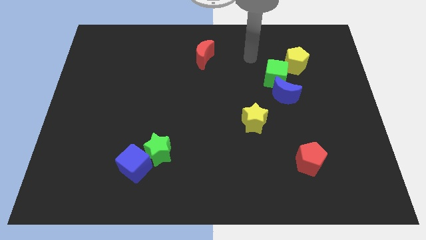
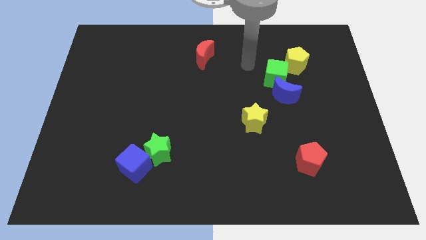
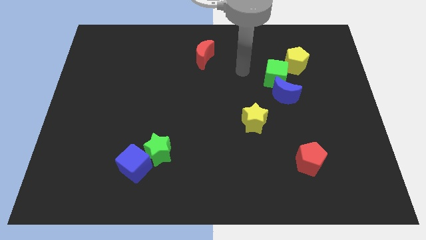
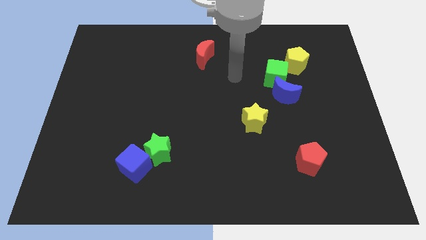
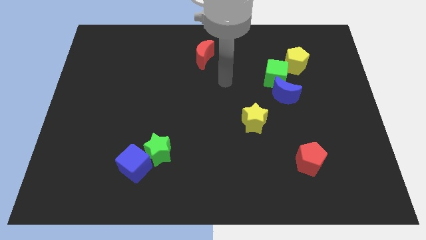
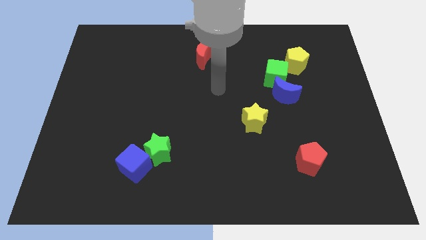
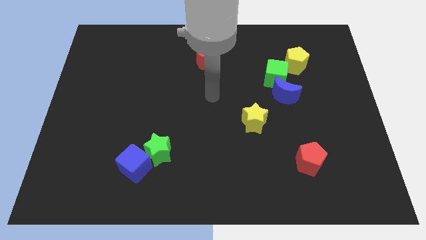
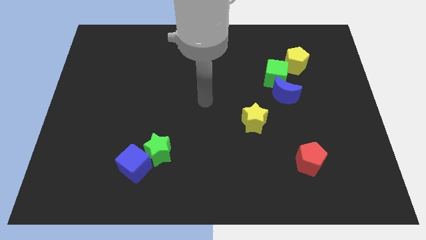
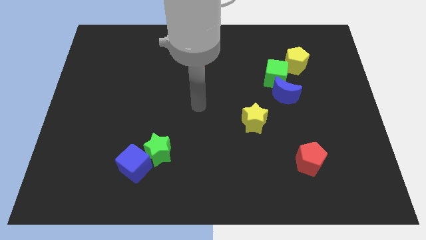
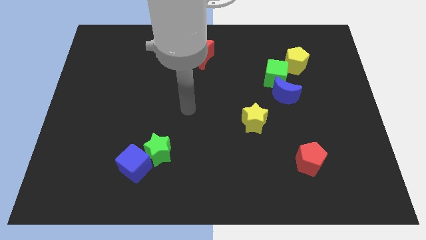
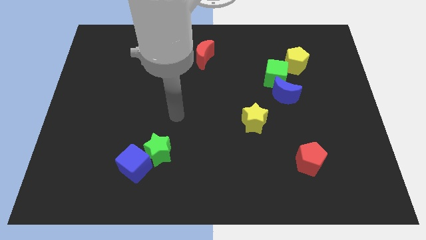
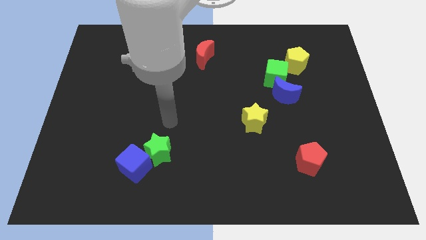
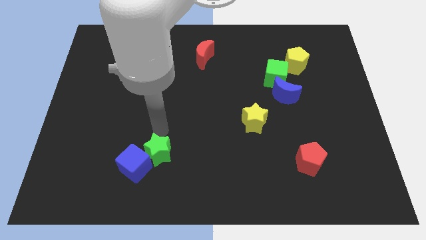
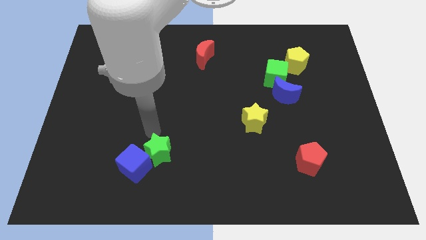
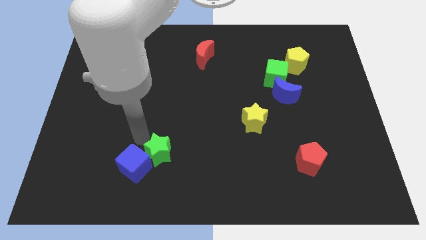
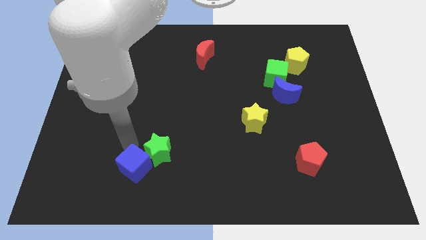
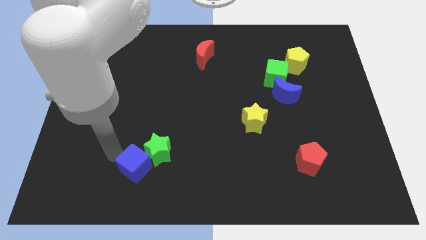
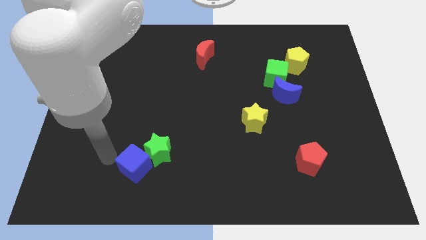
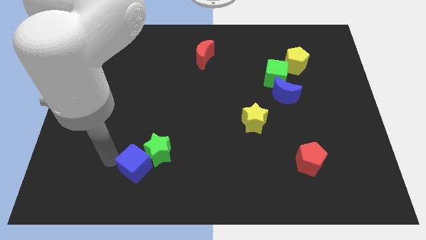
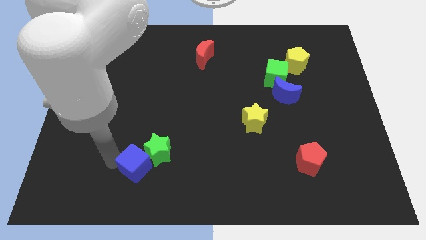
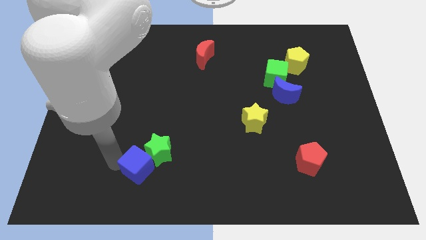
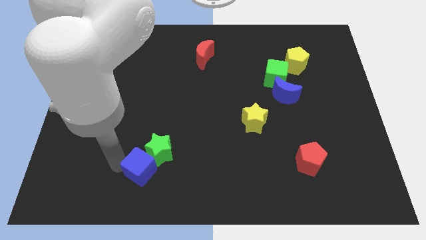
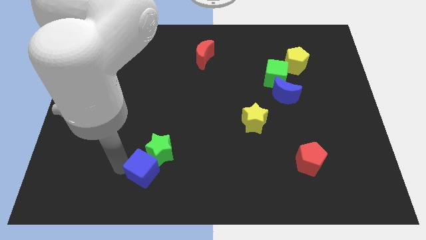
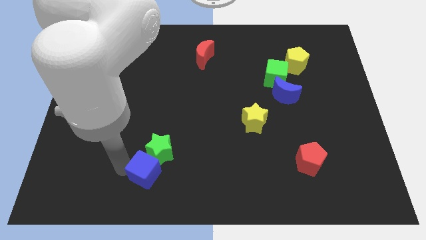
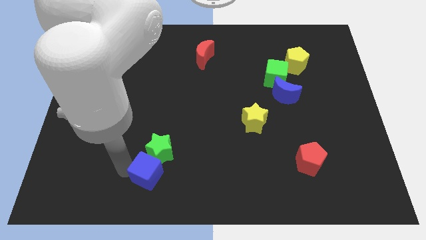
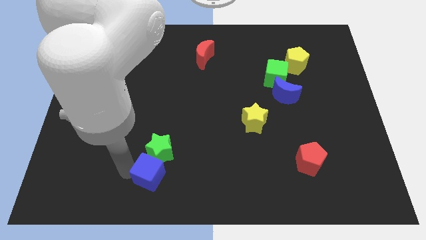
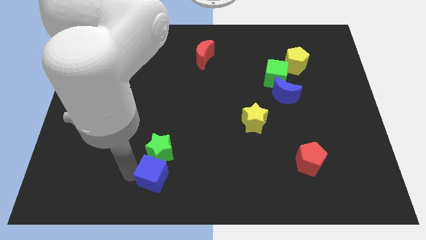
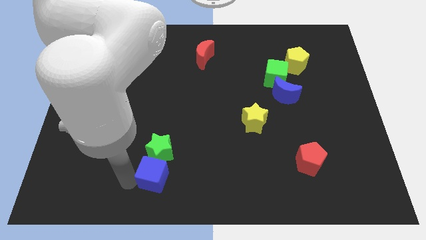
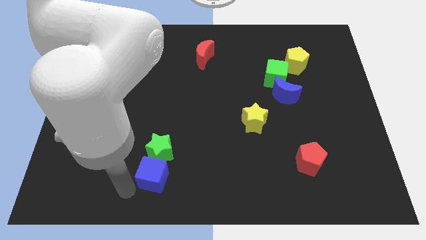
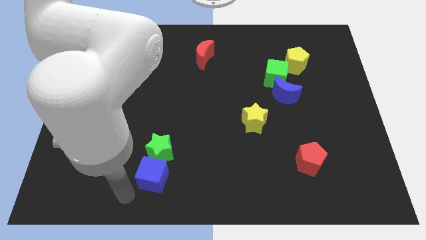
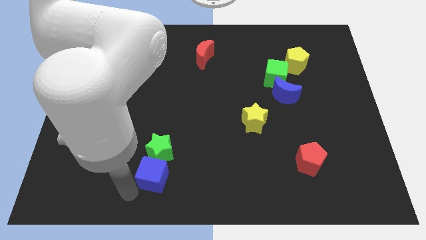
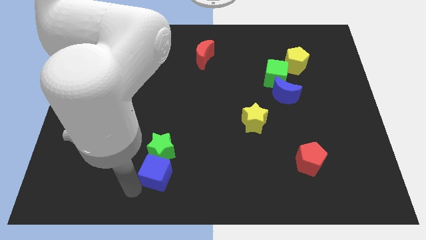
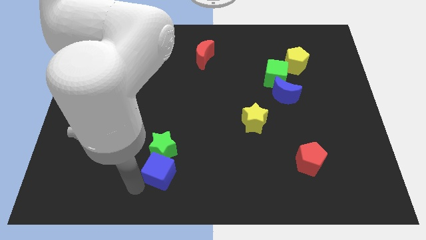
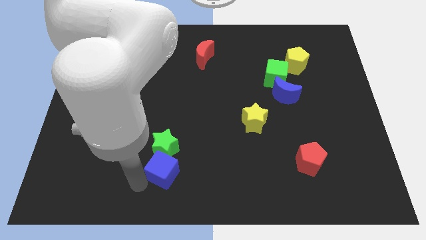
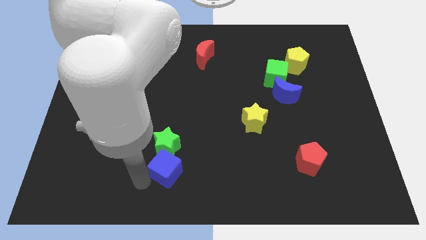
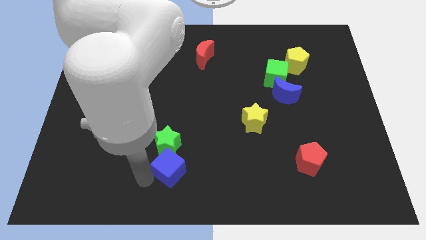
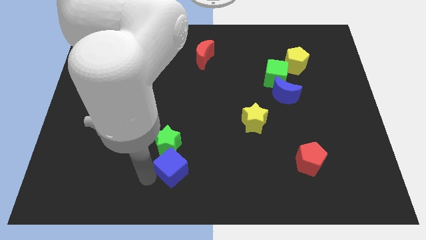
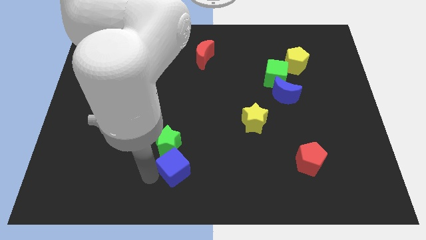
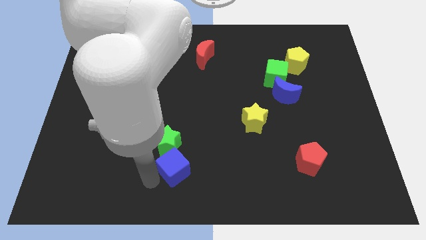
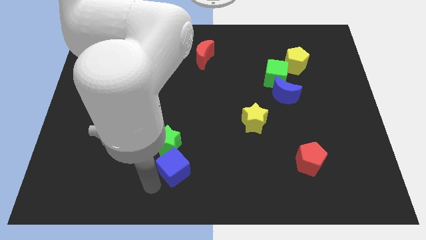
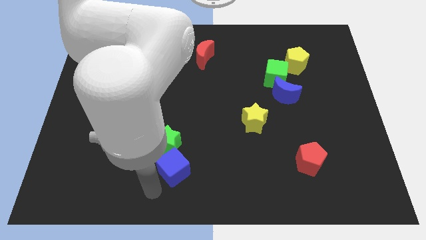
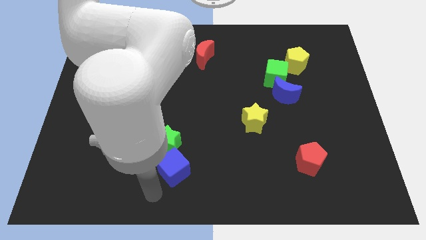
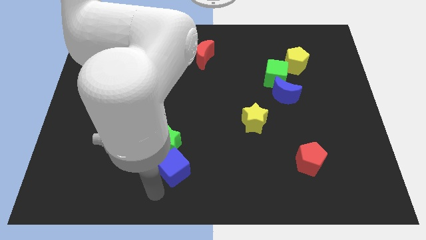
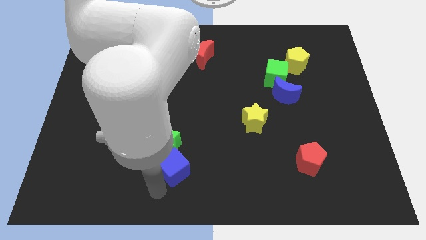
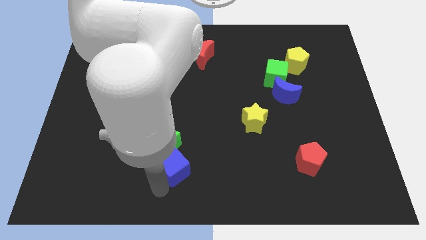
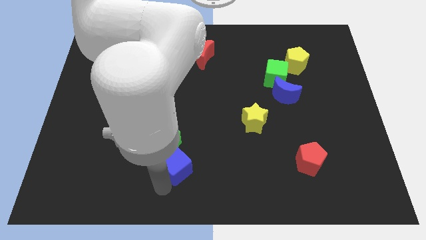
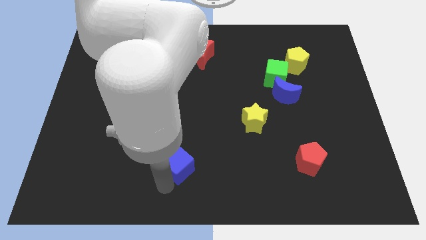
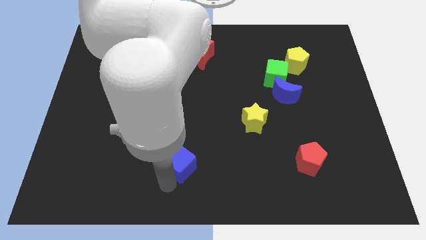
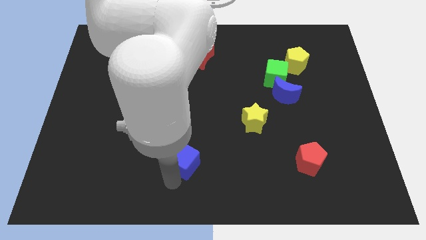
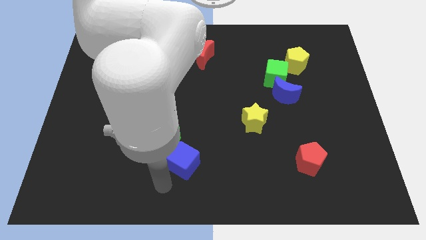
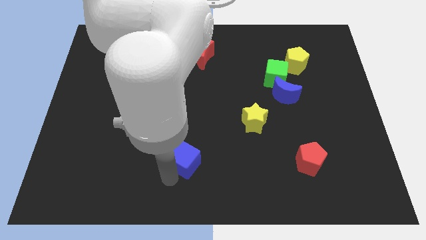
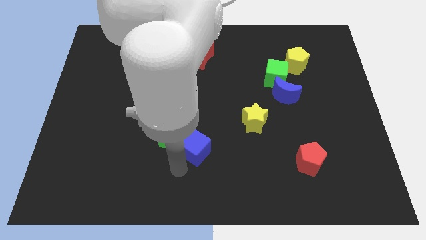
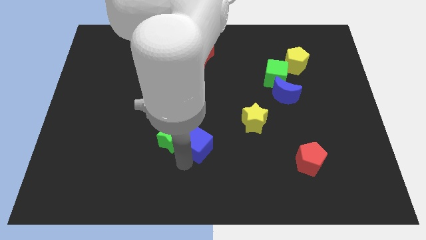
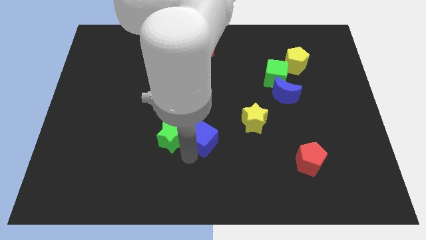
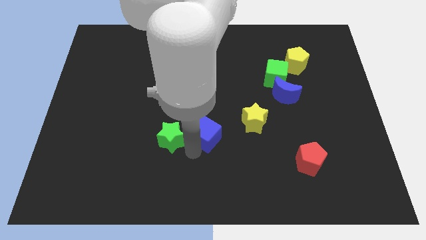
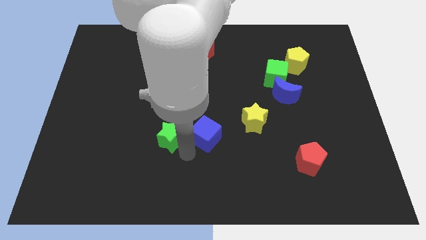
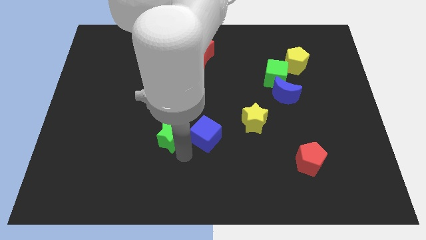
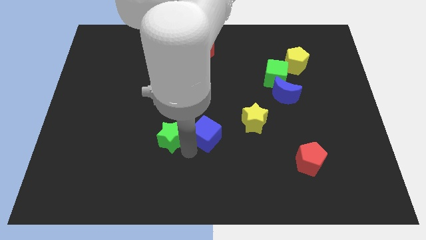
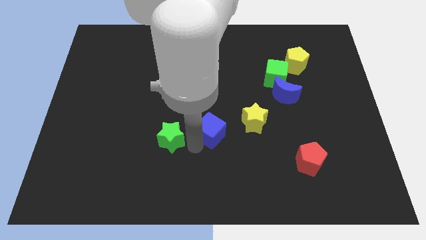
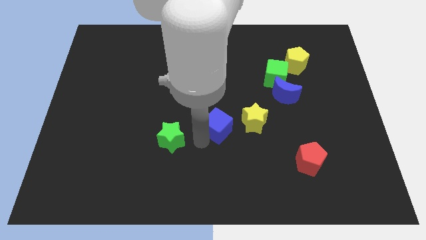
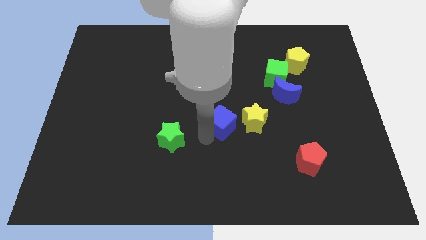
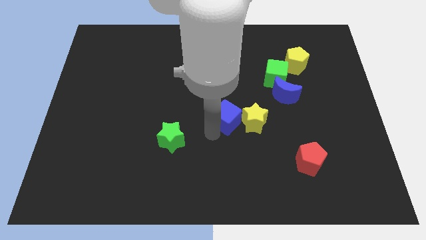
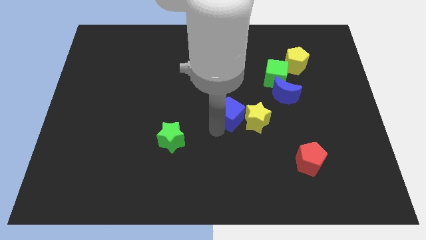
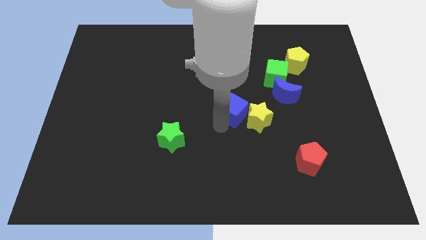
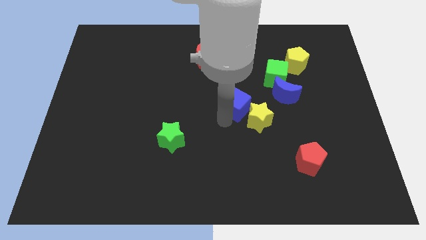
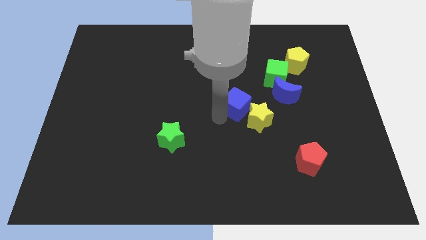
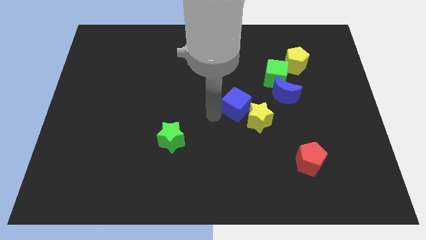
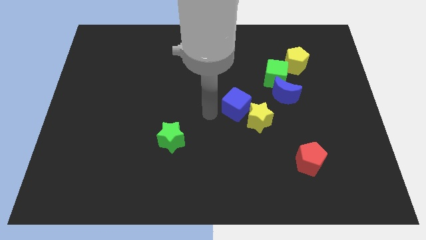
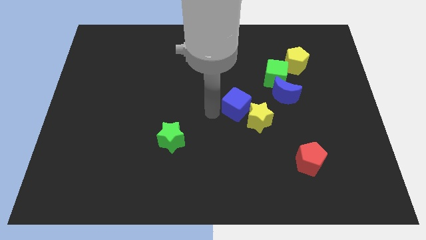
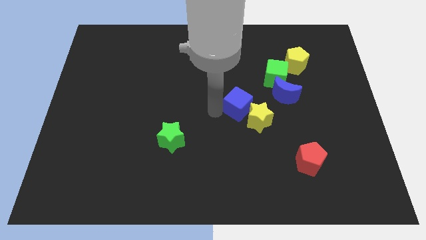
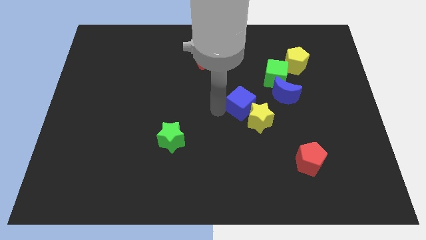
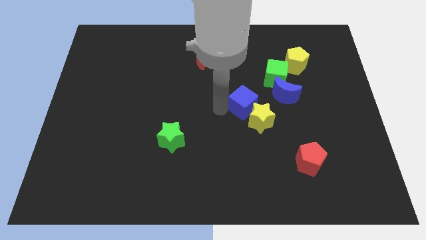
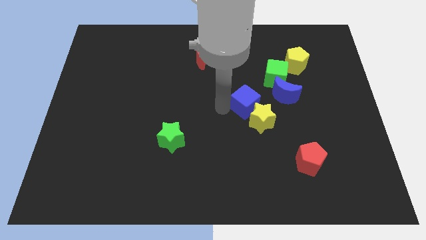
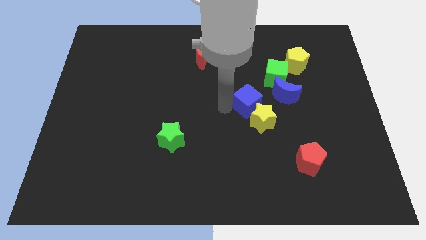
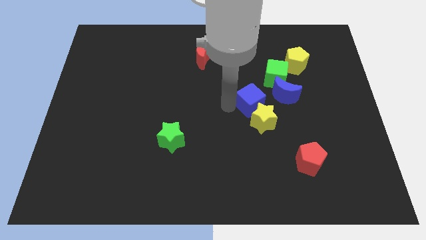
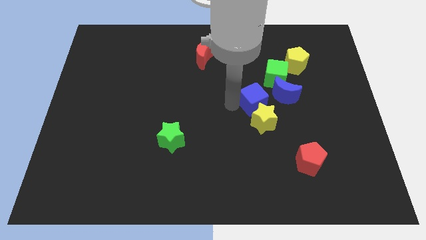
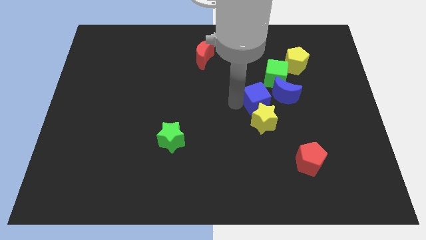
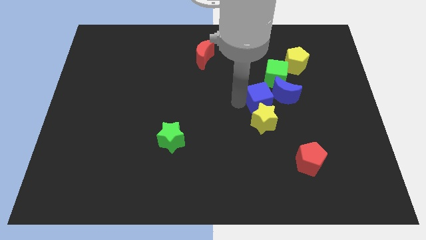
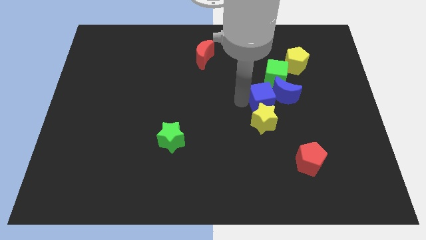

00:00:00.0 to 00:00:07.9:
put the blue cube next to the blue moon
